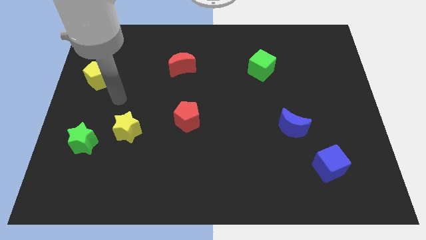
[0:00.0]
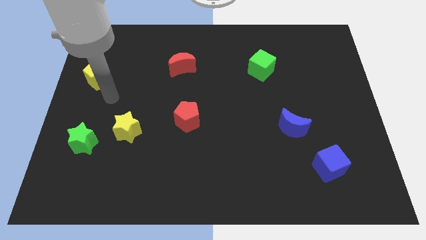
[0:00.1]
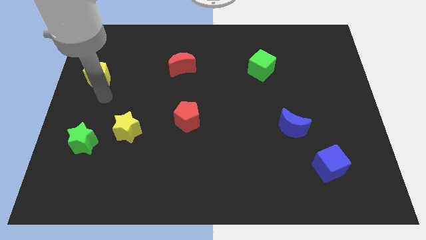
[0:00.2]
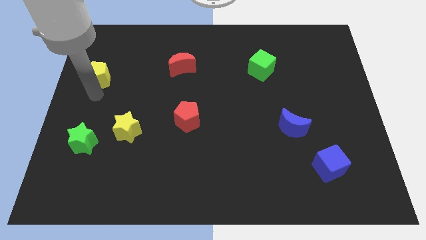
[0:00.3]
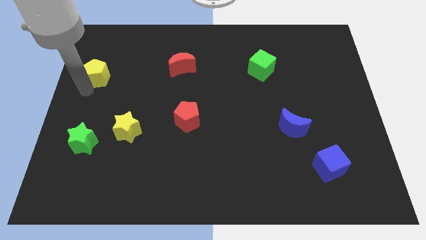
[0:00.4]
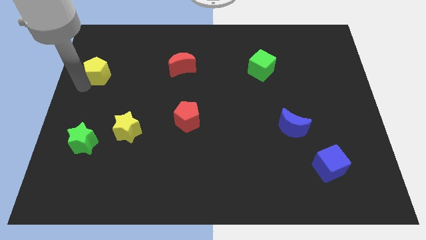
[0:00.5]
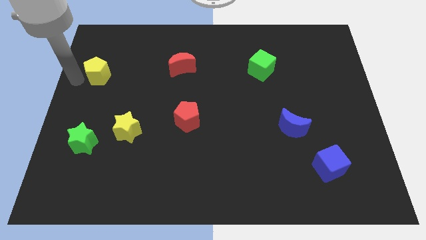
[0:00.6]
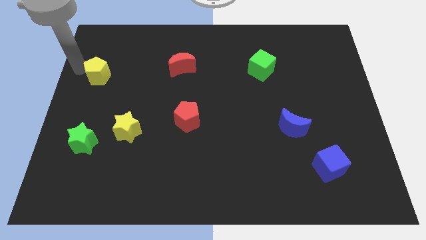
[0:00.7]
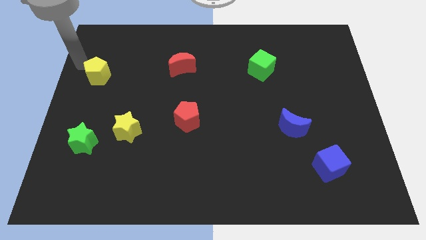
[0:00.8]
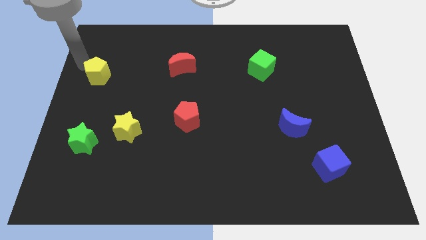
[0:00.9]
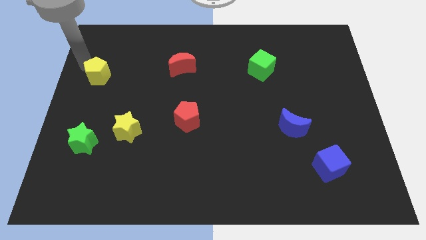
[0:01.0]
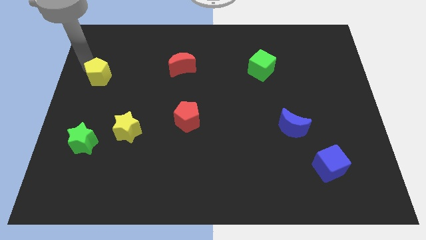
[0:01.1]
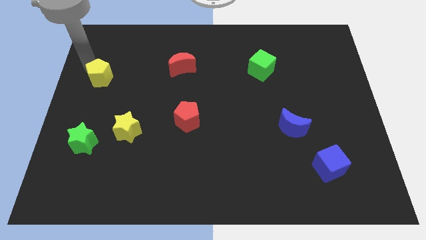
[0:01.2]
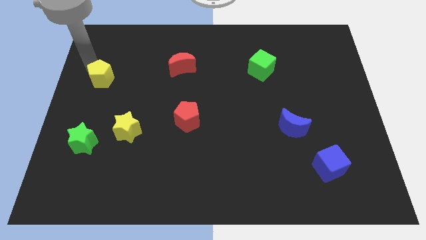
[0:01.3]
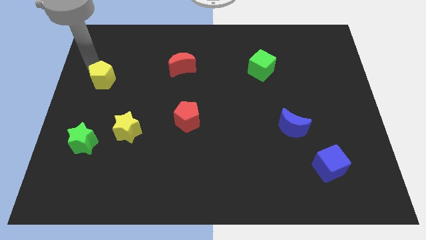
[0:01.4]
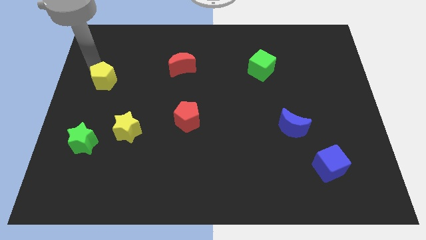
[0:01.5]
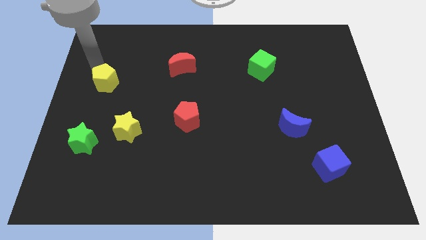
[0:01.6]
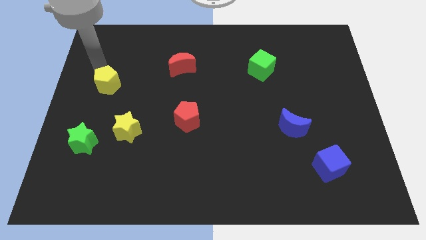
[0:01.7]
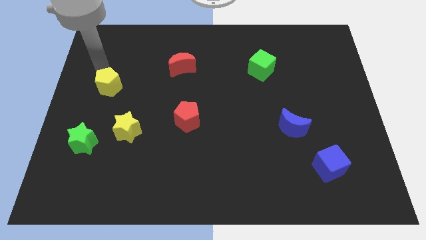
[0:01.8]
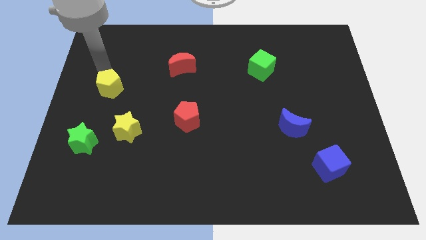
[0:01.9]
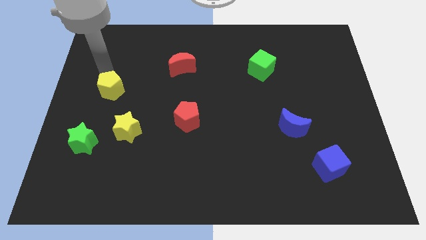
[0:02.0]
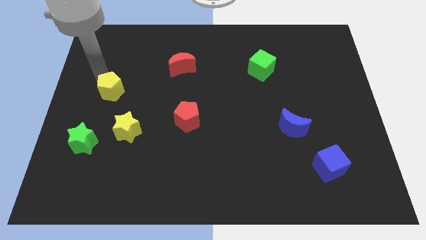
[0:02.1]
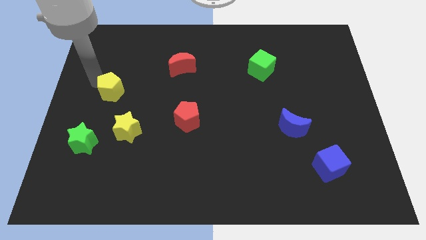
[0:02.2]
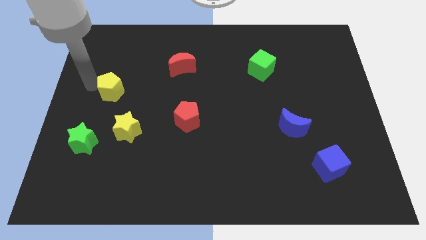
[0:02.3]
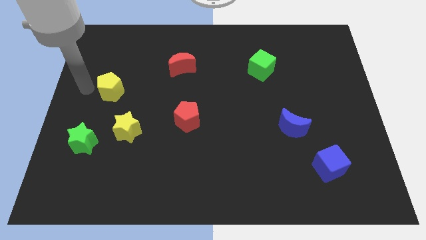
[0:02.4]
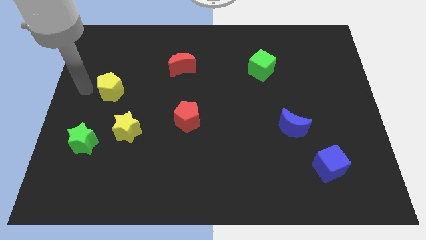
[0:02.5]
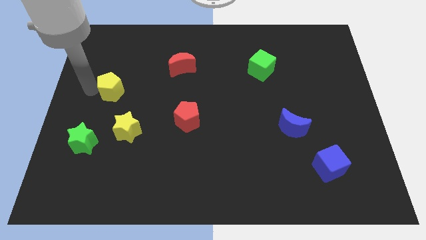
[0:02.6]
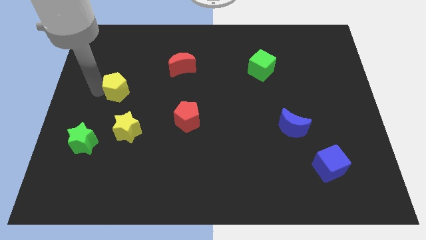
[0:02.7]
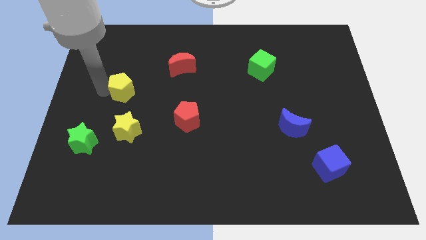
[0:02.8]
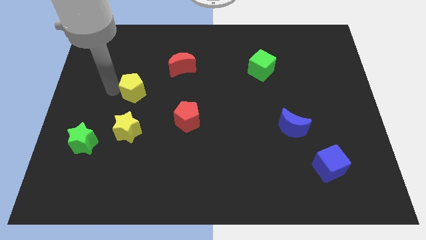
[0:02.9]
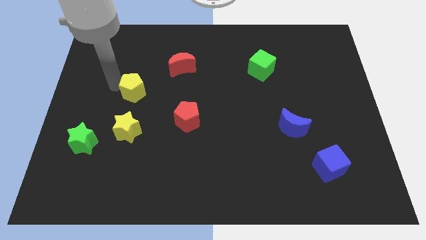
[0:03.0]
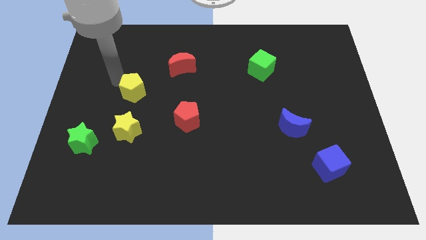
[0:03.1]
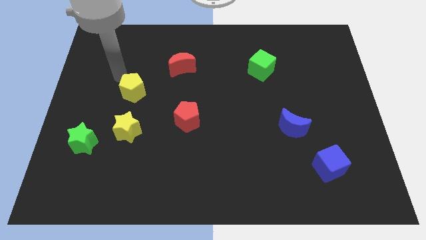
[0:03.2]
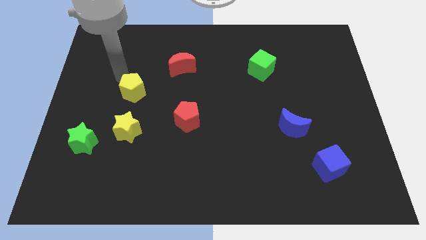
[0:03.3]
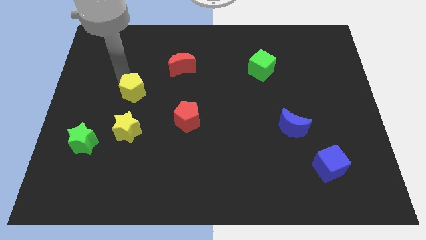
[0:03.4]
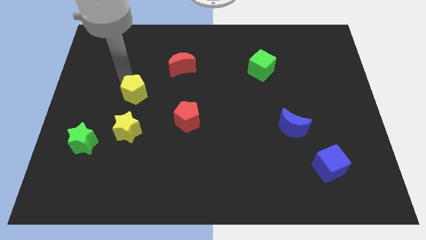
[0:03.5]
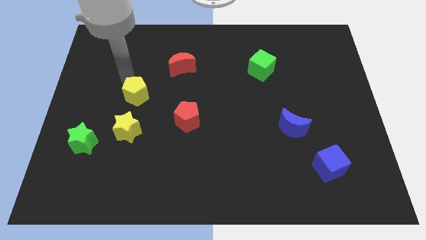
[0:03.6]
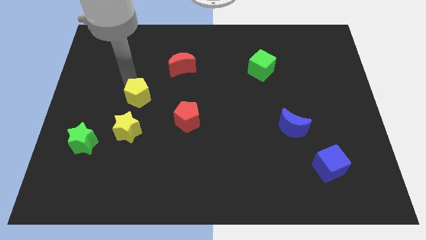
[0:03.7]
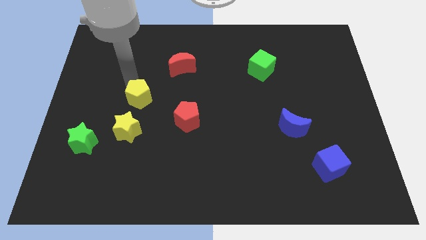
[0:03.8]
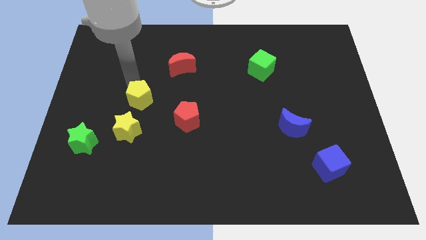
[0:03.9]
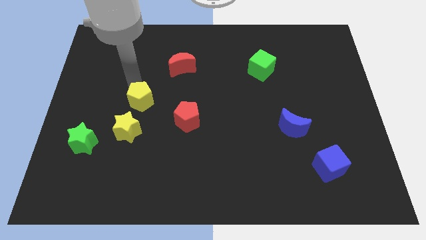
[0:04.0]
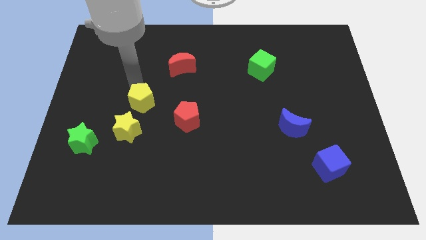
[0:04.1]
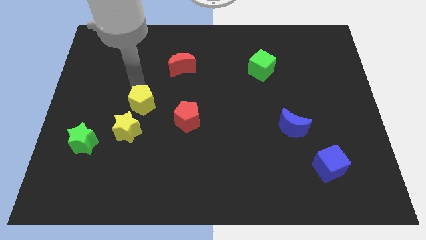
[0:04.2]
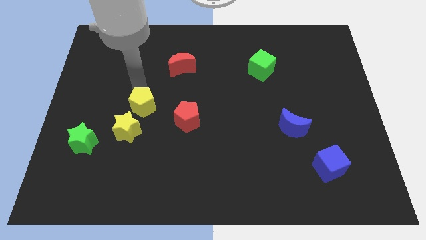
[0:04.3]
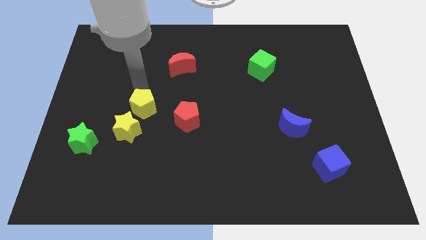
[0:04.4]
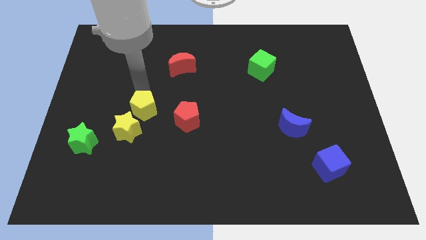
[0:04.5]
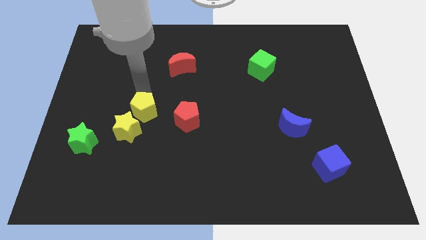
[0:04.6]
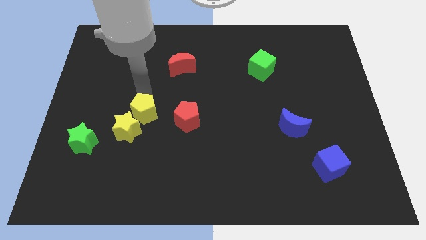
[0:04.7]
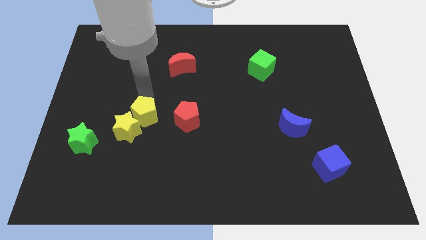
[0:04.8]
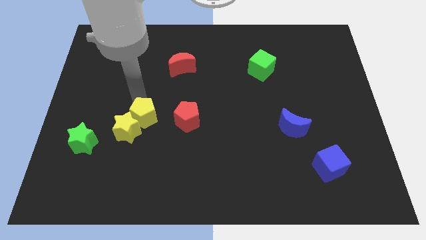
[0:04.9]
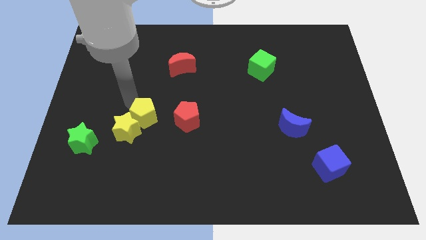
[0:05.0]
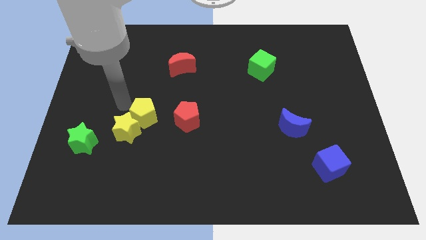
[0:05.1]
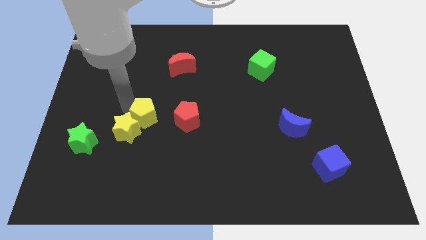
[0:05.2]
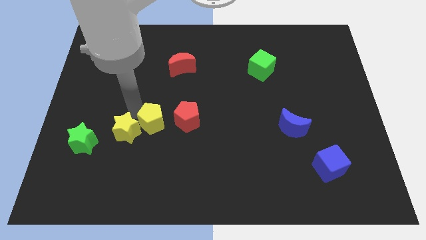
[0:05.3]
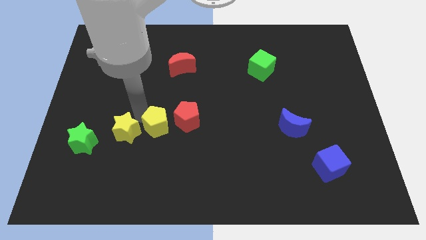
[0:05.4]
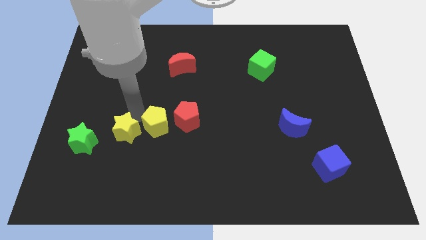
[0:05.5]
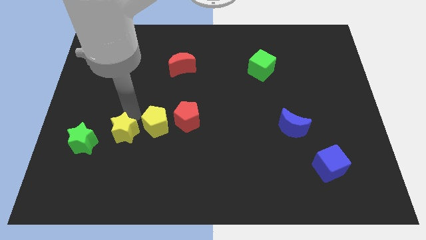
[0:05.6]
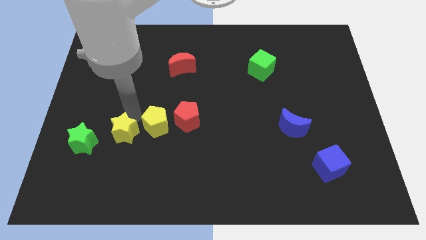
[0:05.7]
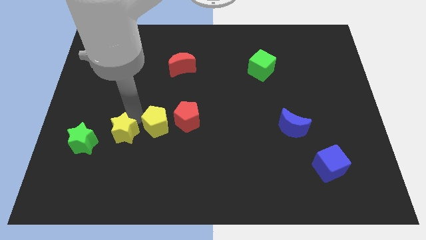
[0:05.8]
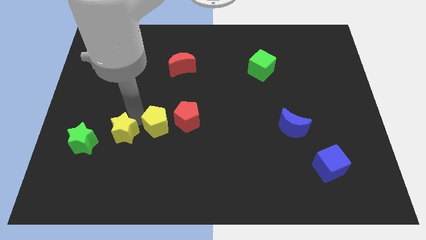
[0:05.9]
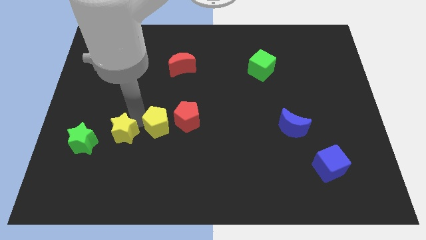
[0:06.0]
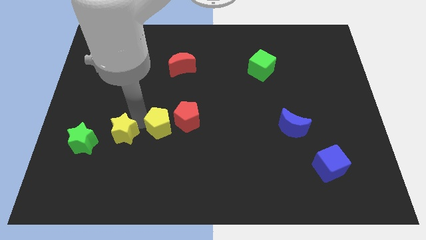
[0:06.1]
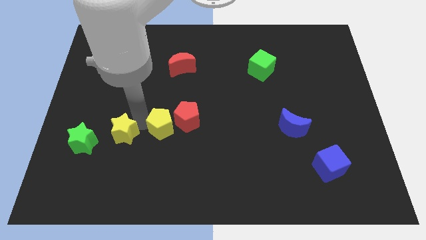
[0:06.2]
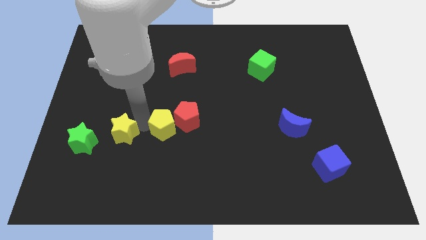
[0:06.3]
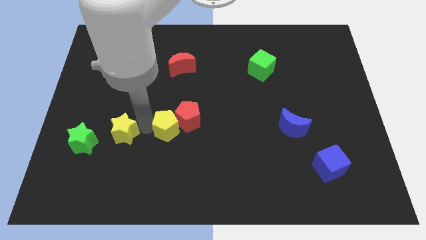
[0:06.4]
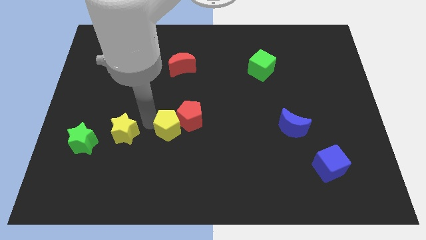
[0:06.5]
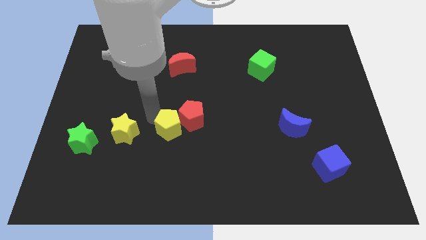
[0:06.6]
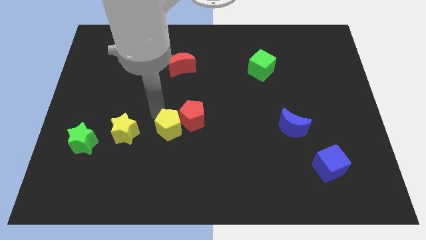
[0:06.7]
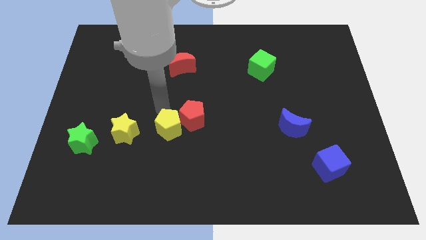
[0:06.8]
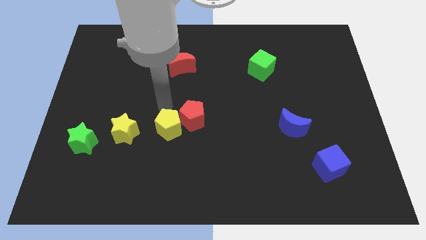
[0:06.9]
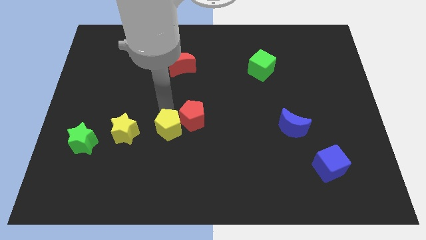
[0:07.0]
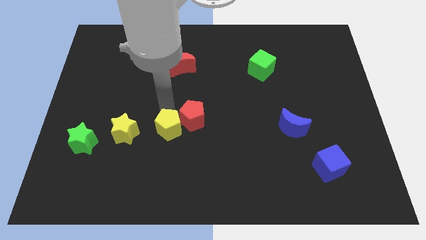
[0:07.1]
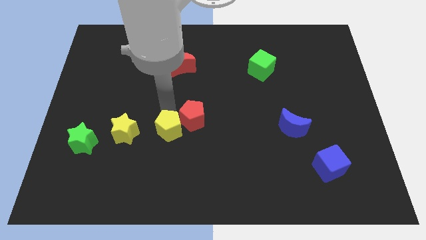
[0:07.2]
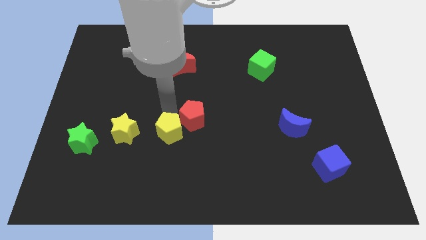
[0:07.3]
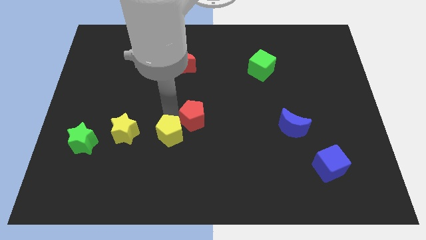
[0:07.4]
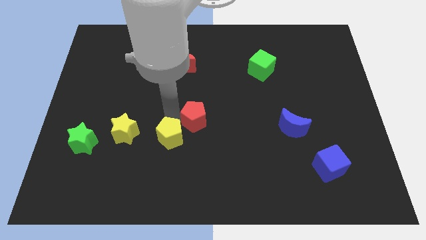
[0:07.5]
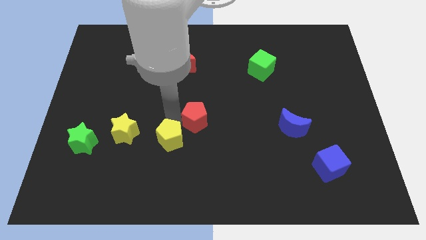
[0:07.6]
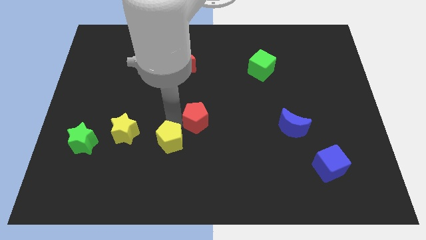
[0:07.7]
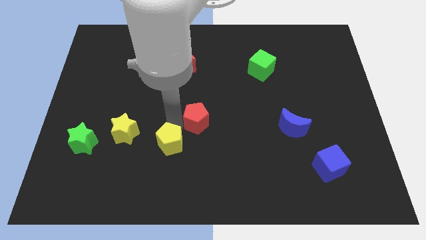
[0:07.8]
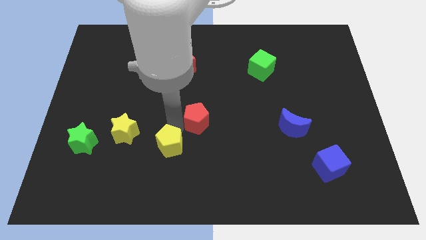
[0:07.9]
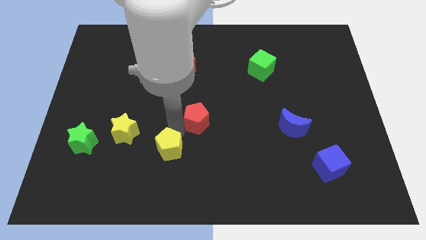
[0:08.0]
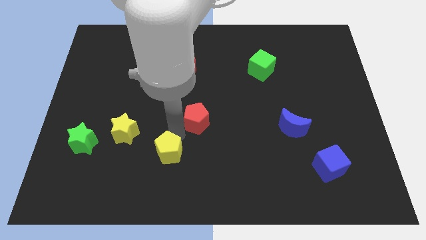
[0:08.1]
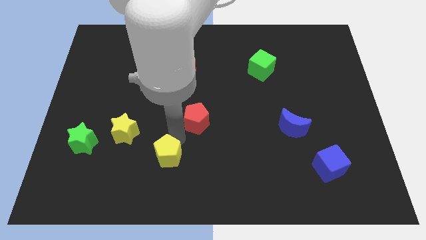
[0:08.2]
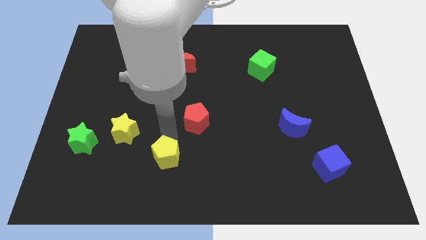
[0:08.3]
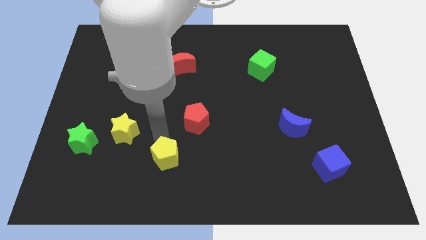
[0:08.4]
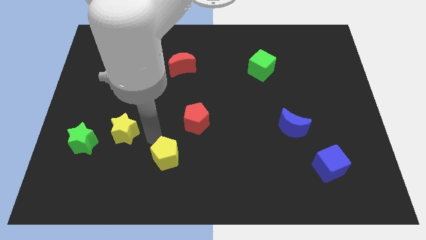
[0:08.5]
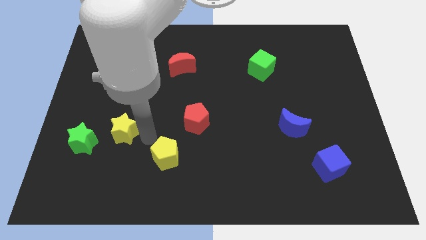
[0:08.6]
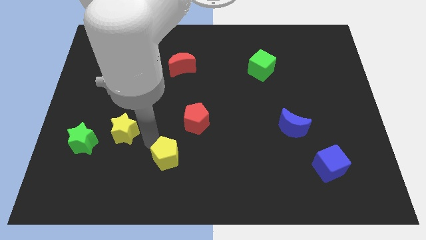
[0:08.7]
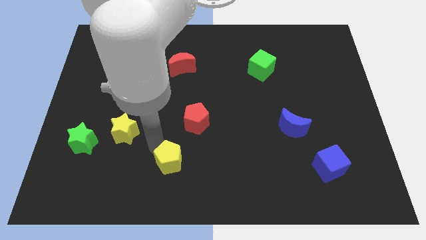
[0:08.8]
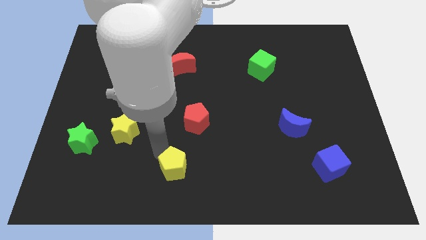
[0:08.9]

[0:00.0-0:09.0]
put the yellow pentagon to the bottom side
